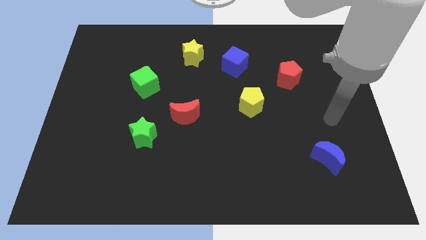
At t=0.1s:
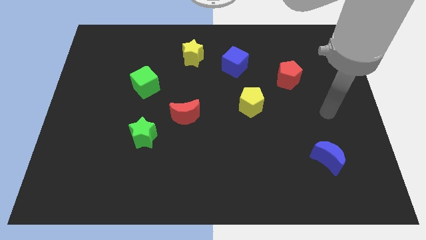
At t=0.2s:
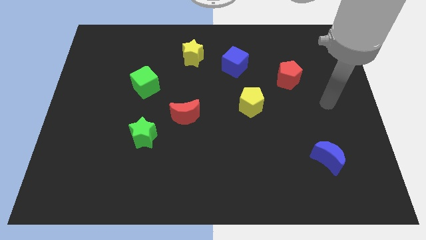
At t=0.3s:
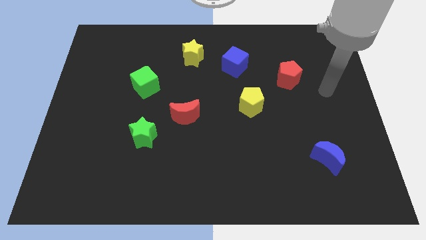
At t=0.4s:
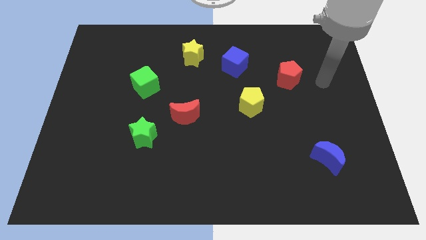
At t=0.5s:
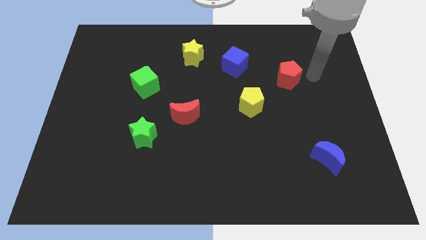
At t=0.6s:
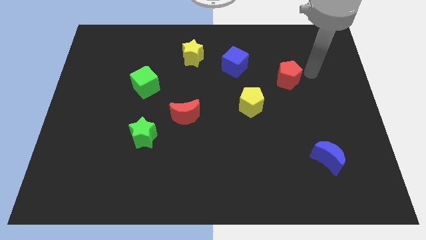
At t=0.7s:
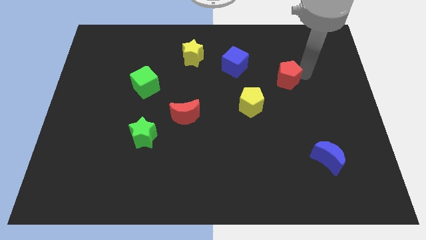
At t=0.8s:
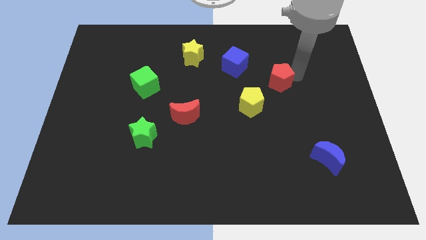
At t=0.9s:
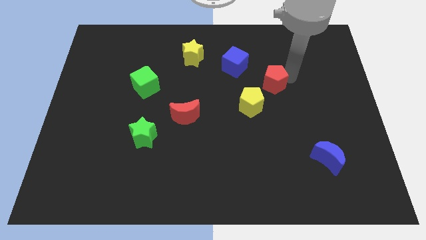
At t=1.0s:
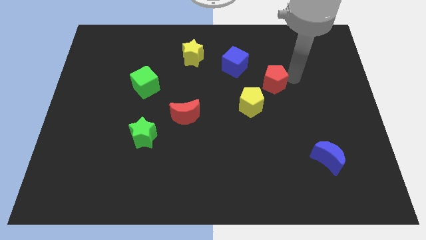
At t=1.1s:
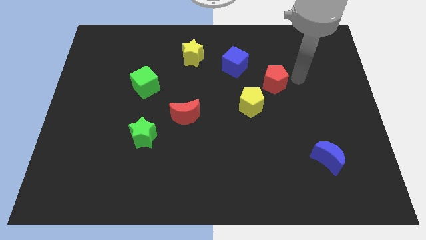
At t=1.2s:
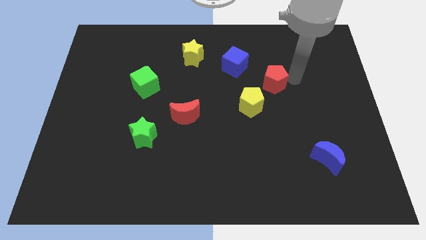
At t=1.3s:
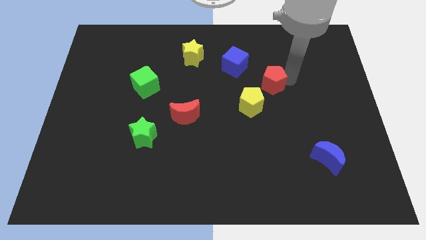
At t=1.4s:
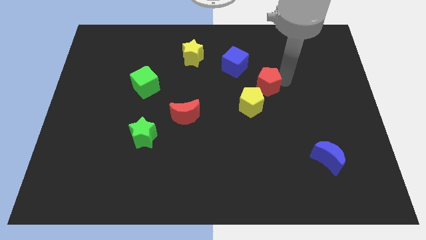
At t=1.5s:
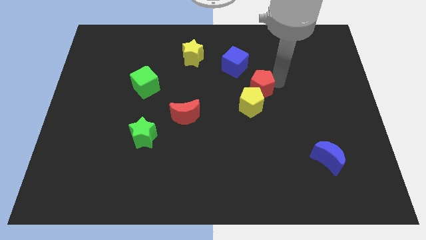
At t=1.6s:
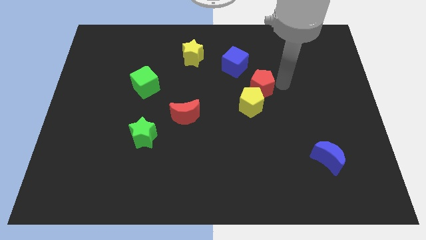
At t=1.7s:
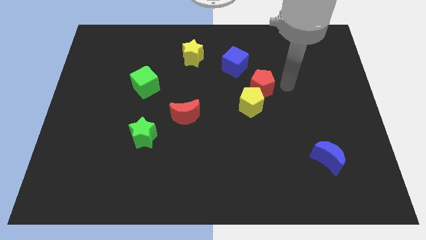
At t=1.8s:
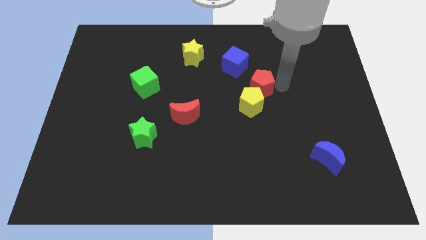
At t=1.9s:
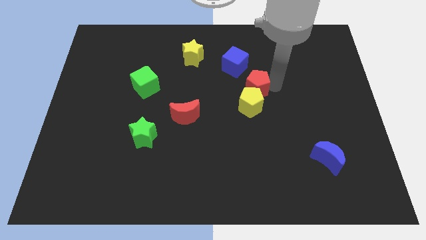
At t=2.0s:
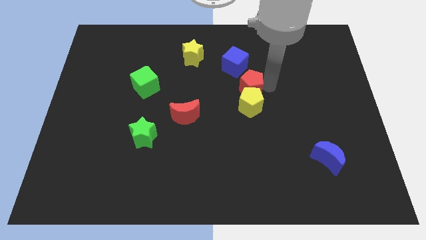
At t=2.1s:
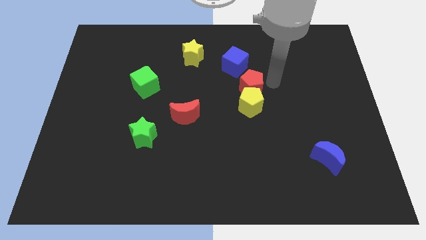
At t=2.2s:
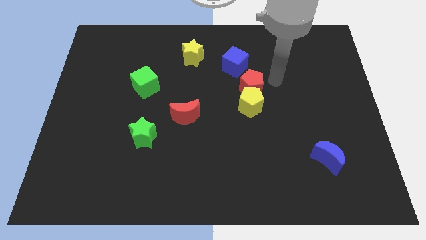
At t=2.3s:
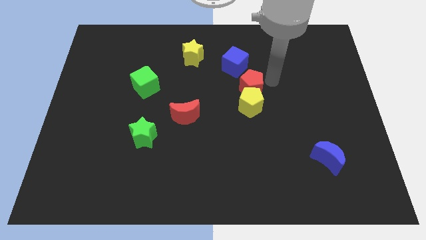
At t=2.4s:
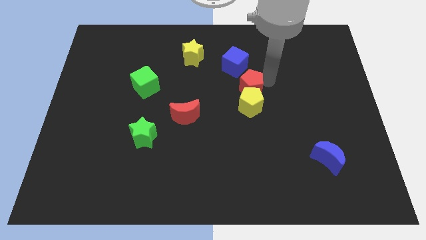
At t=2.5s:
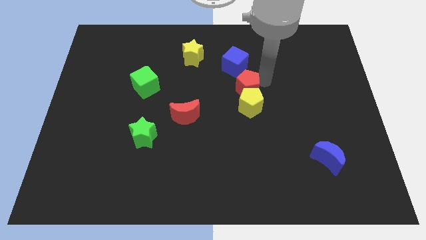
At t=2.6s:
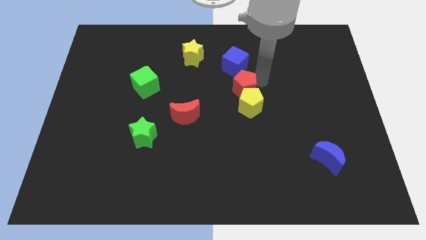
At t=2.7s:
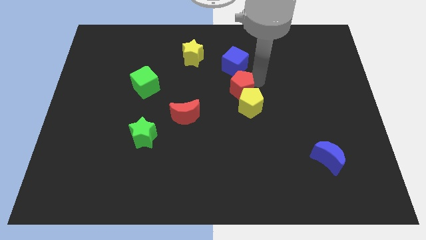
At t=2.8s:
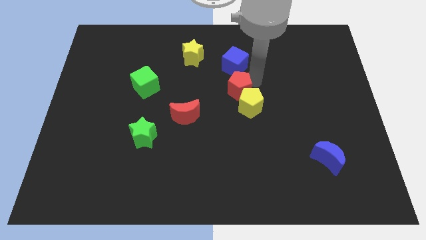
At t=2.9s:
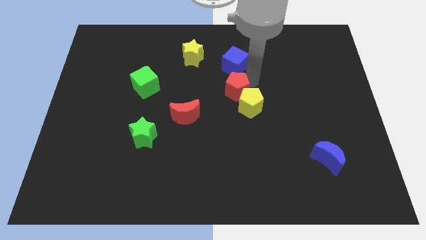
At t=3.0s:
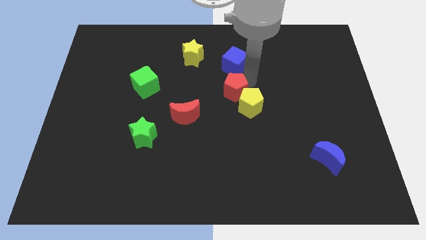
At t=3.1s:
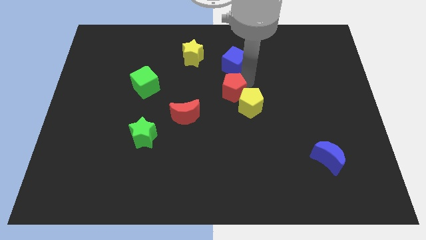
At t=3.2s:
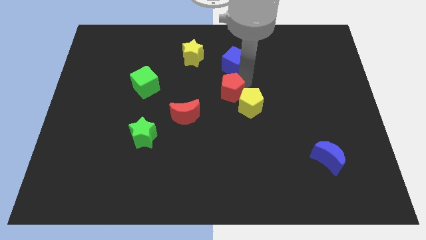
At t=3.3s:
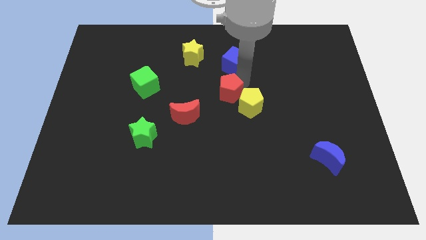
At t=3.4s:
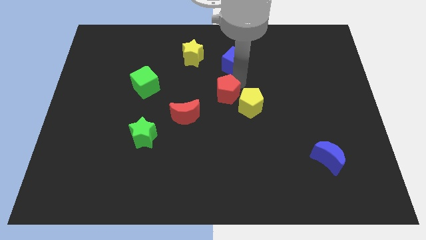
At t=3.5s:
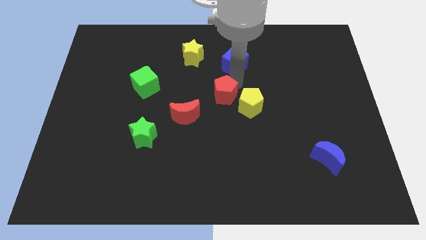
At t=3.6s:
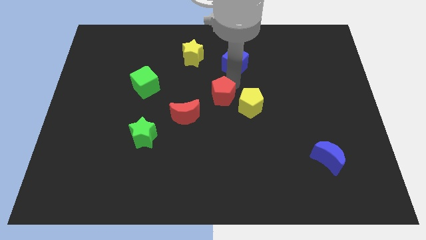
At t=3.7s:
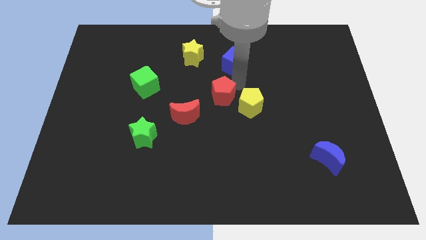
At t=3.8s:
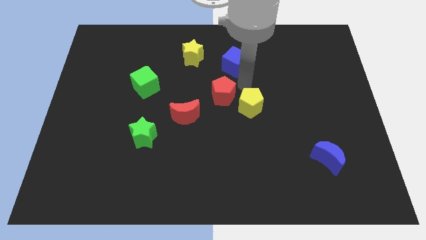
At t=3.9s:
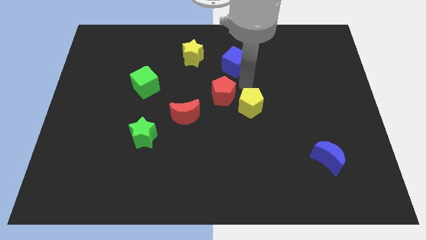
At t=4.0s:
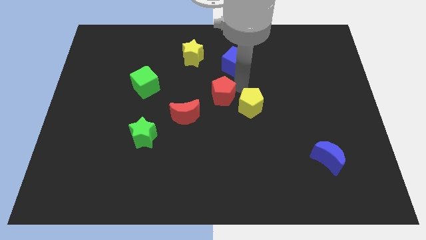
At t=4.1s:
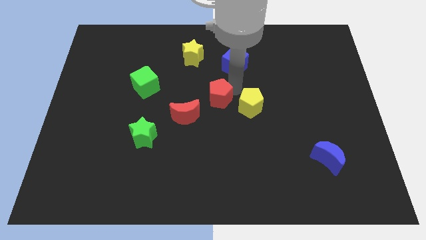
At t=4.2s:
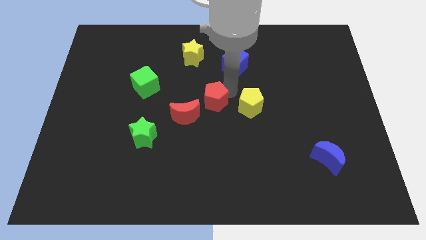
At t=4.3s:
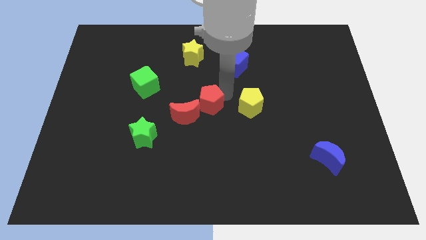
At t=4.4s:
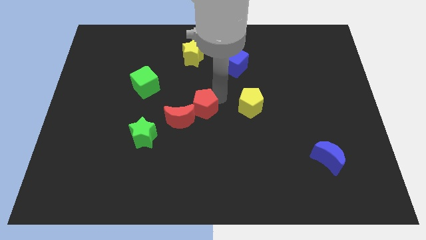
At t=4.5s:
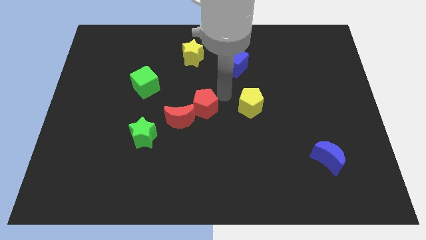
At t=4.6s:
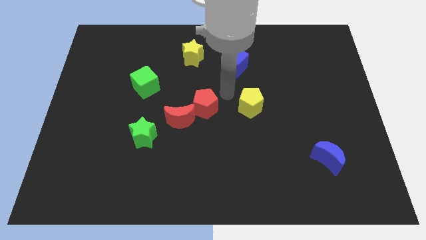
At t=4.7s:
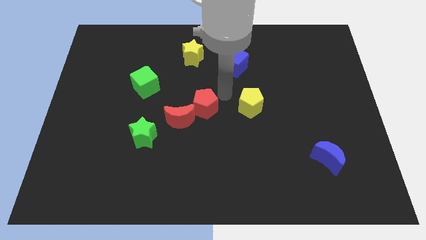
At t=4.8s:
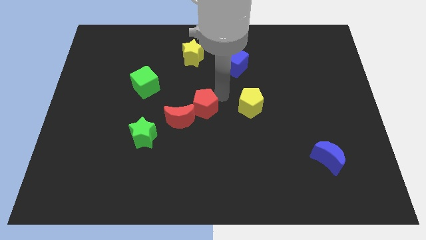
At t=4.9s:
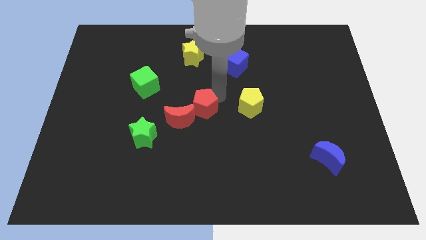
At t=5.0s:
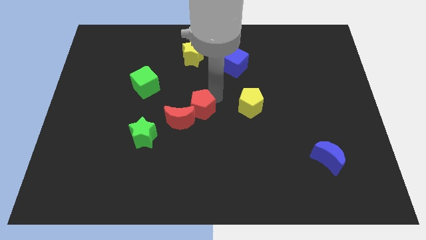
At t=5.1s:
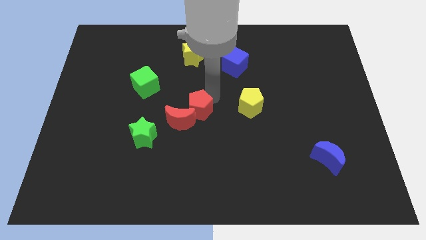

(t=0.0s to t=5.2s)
slide the red pentagon towards the red moon

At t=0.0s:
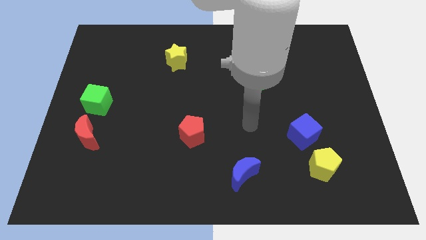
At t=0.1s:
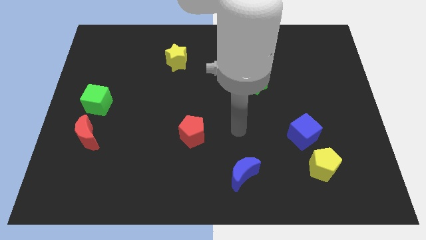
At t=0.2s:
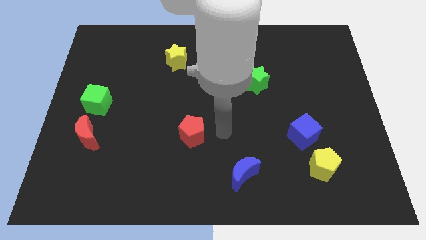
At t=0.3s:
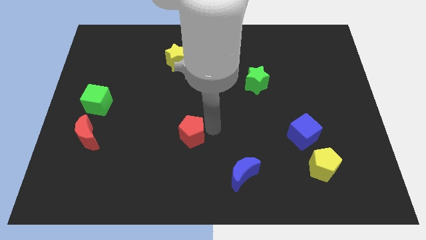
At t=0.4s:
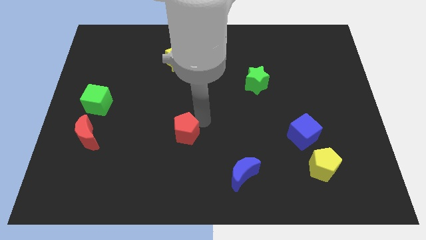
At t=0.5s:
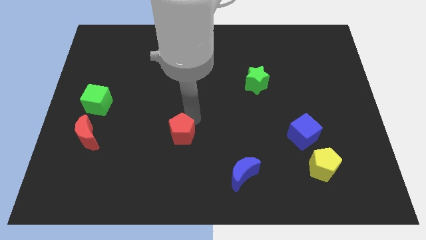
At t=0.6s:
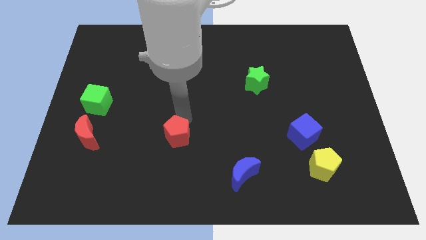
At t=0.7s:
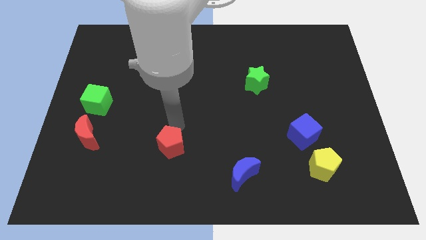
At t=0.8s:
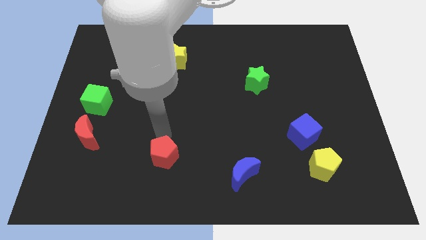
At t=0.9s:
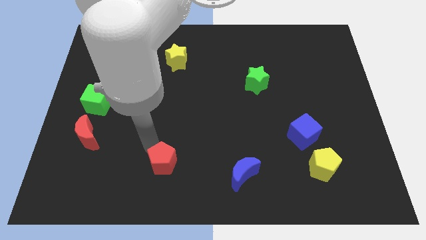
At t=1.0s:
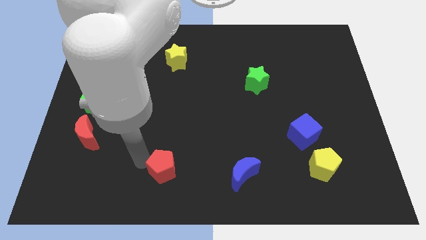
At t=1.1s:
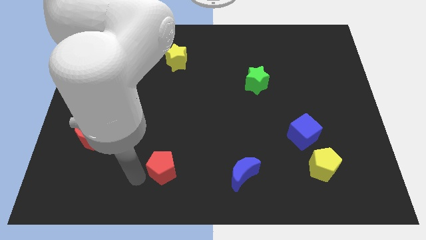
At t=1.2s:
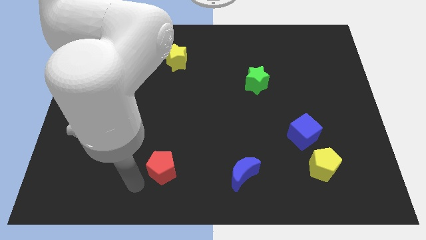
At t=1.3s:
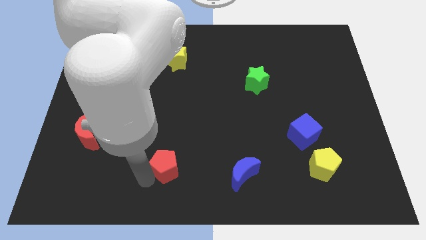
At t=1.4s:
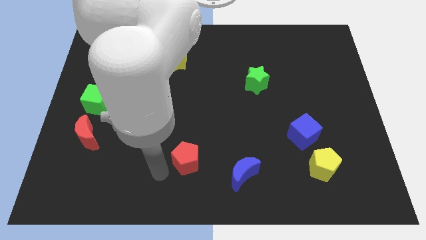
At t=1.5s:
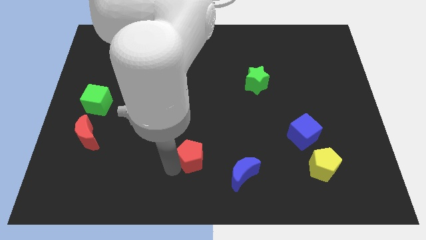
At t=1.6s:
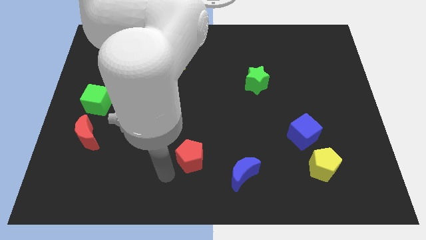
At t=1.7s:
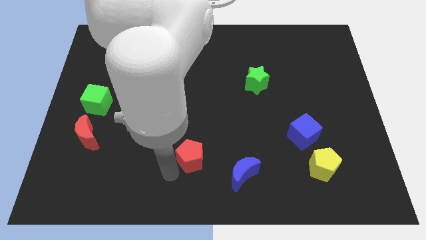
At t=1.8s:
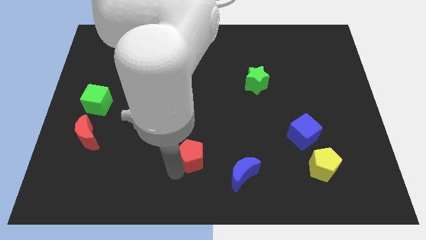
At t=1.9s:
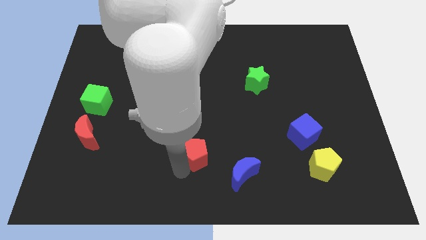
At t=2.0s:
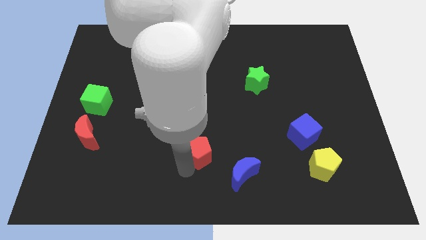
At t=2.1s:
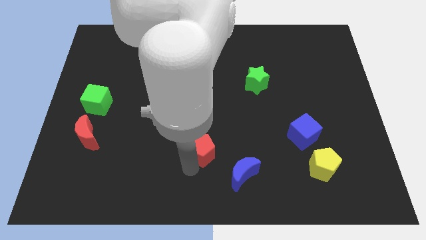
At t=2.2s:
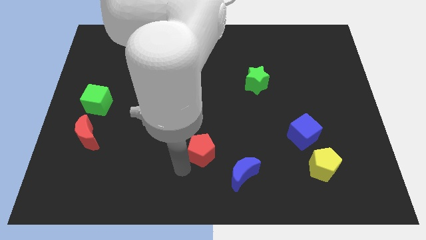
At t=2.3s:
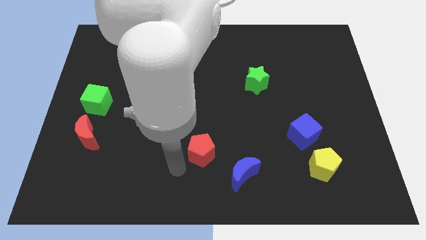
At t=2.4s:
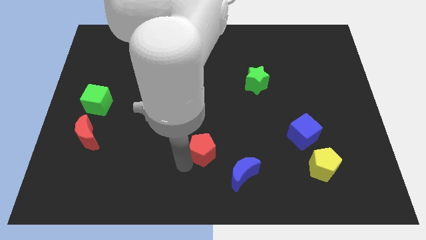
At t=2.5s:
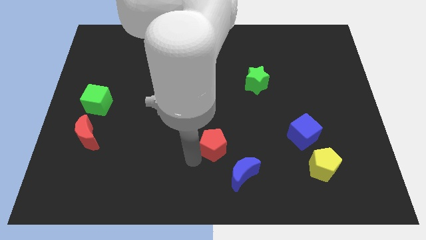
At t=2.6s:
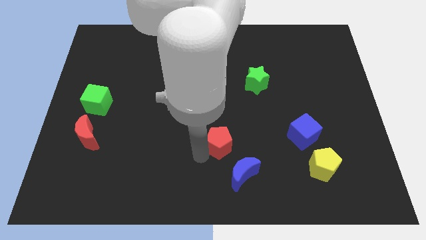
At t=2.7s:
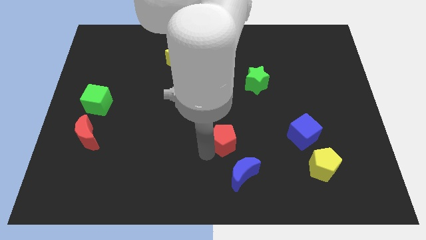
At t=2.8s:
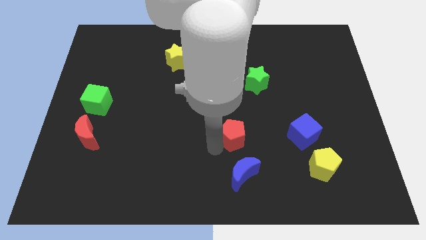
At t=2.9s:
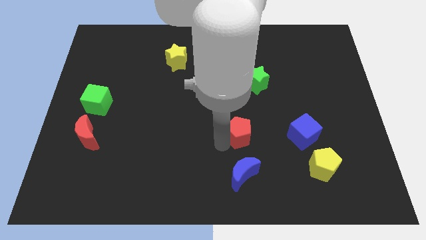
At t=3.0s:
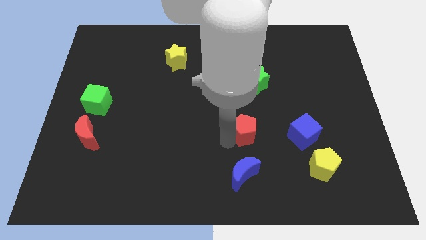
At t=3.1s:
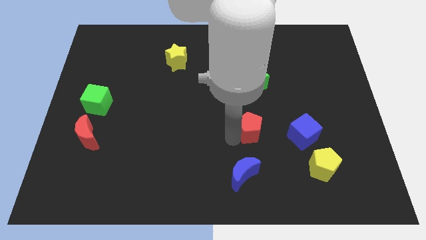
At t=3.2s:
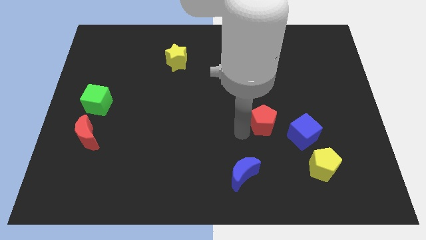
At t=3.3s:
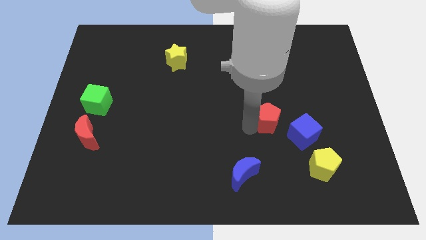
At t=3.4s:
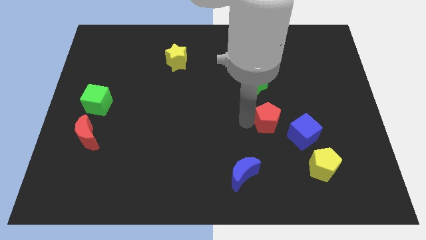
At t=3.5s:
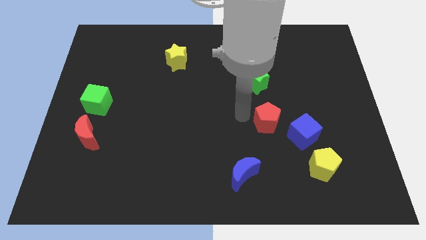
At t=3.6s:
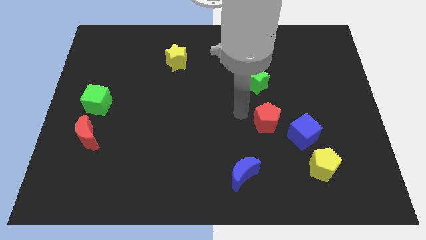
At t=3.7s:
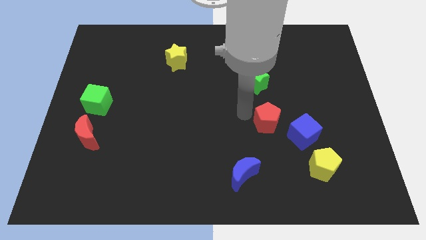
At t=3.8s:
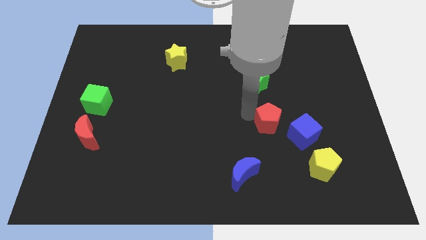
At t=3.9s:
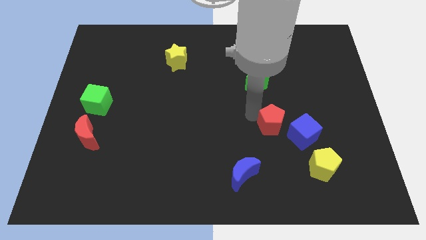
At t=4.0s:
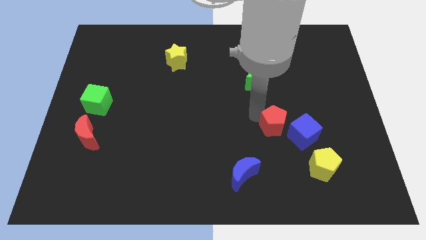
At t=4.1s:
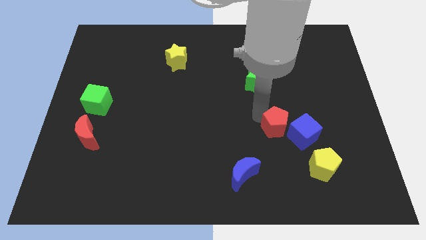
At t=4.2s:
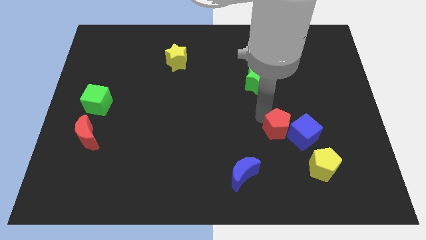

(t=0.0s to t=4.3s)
push the red pentagon towards the blue cube
